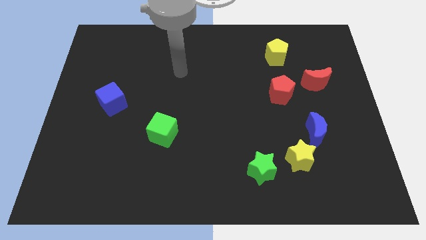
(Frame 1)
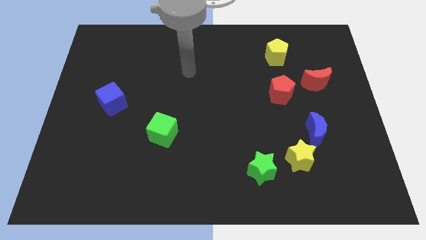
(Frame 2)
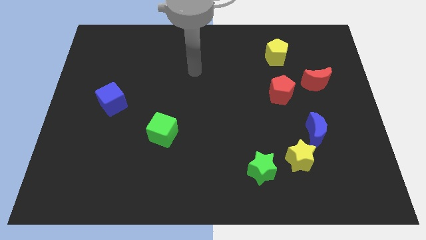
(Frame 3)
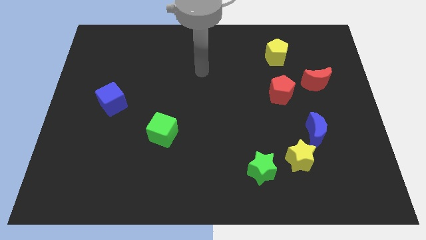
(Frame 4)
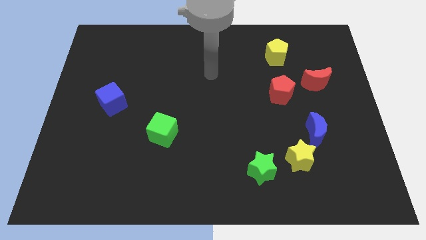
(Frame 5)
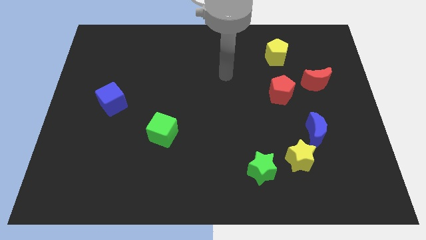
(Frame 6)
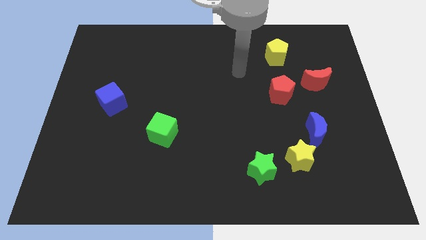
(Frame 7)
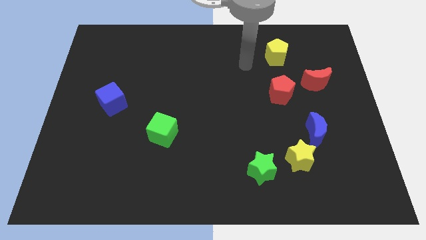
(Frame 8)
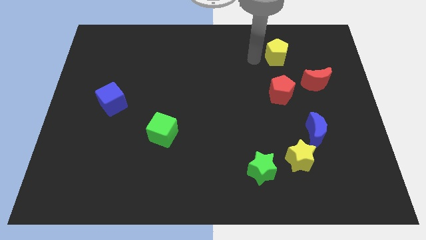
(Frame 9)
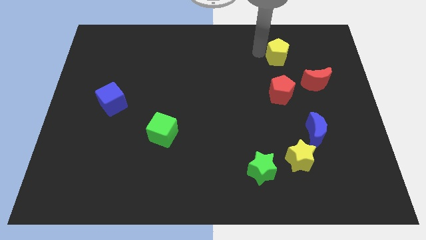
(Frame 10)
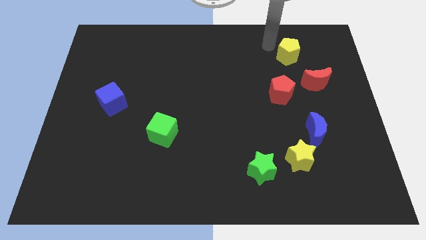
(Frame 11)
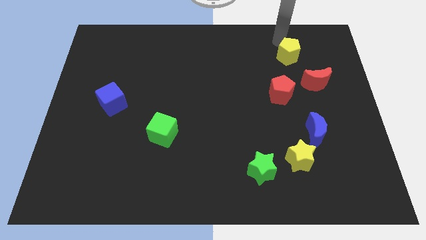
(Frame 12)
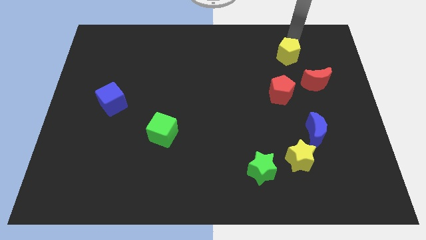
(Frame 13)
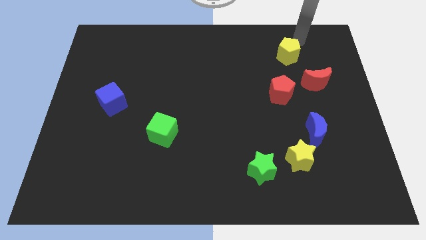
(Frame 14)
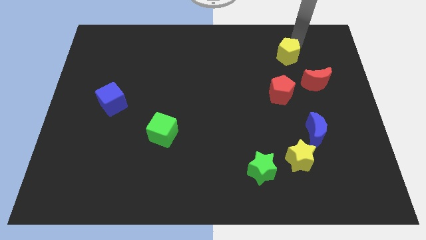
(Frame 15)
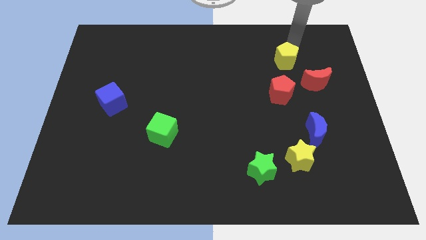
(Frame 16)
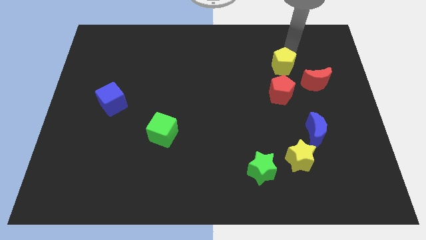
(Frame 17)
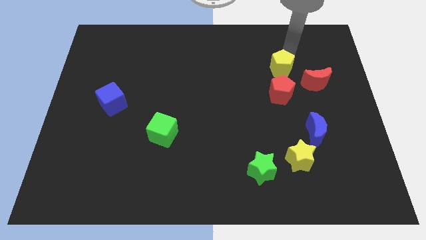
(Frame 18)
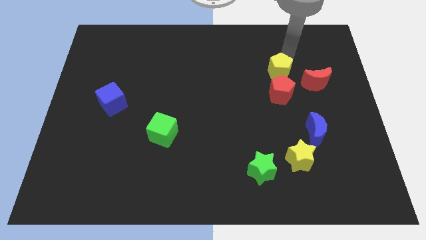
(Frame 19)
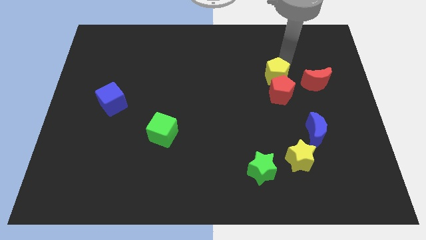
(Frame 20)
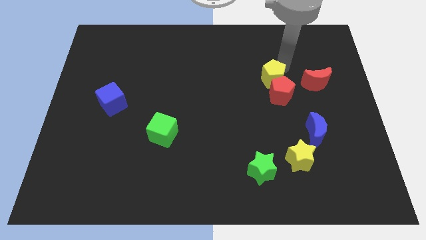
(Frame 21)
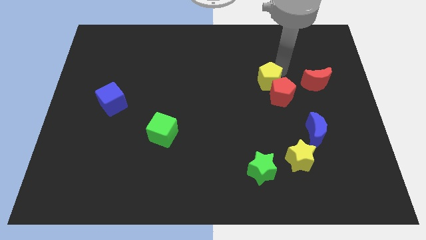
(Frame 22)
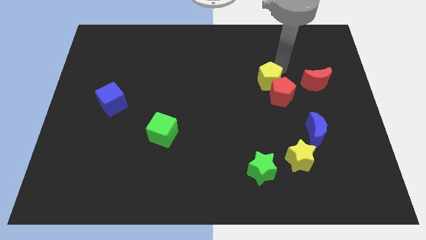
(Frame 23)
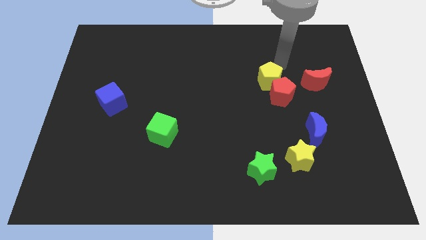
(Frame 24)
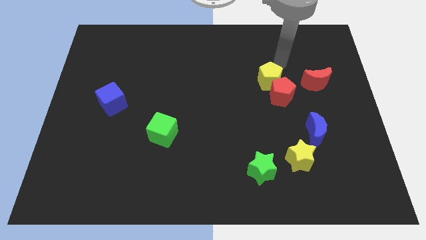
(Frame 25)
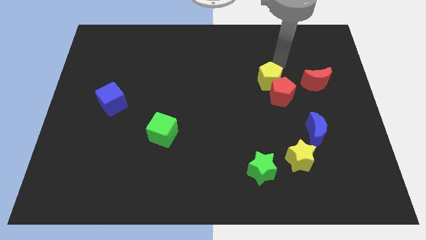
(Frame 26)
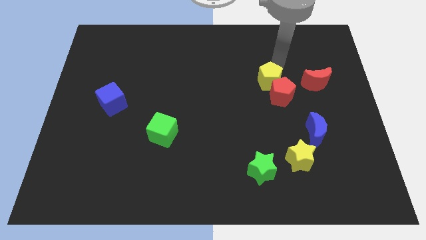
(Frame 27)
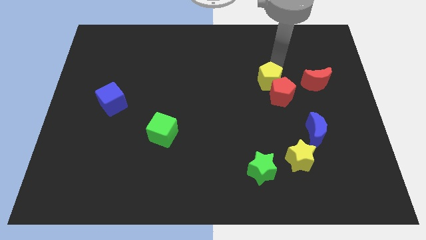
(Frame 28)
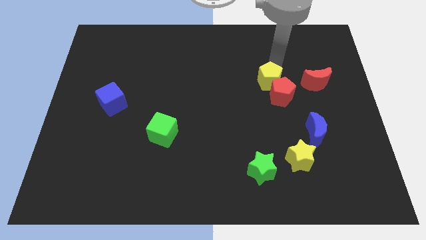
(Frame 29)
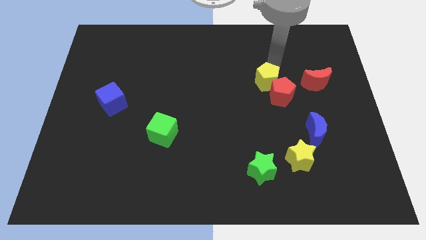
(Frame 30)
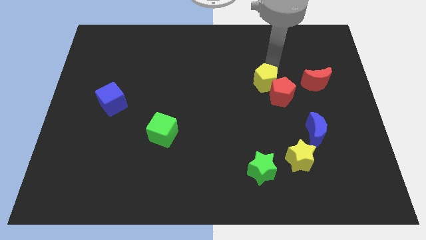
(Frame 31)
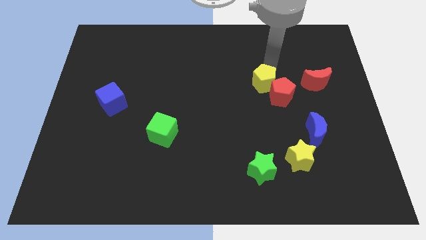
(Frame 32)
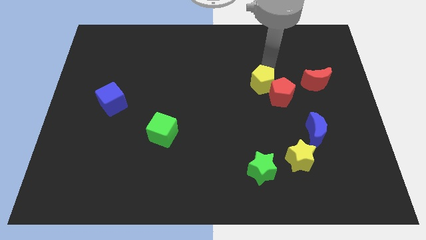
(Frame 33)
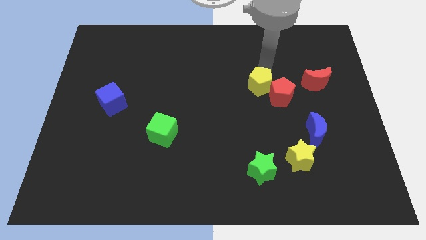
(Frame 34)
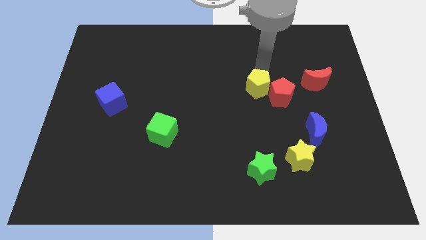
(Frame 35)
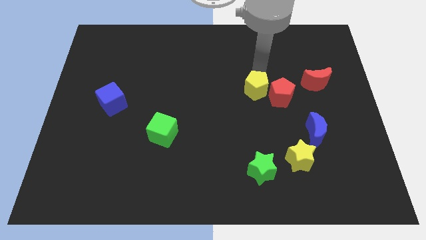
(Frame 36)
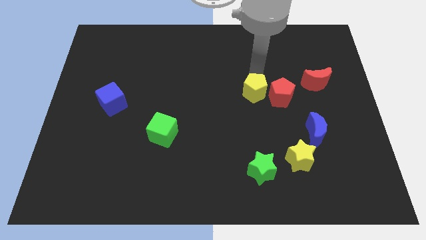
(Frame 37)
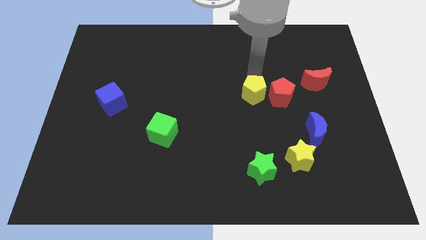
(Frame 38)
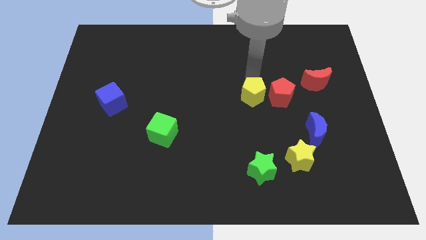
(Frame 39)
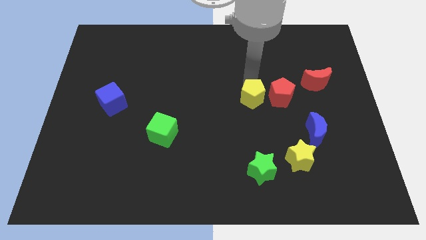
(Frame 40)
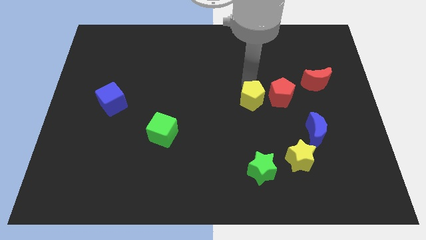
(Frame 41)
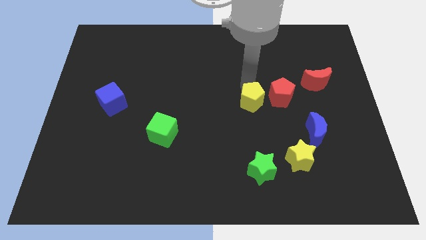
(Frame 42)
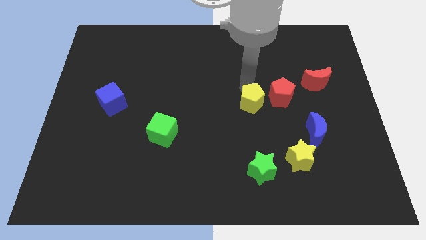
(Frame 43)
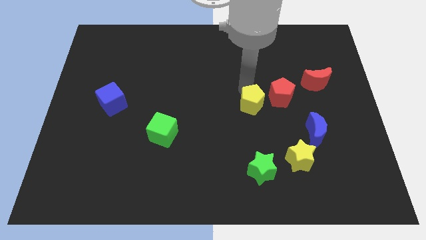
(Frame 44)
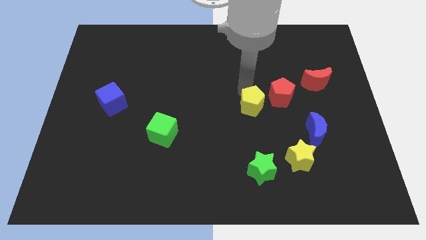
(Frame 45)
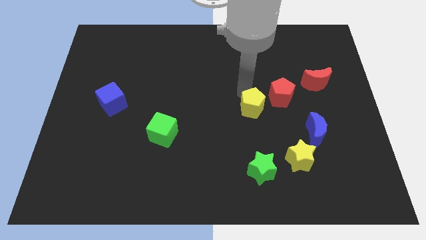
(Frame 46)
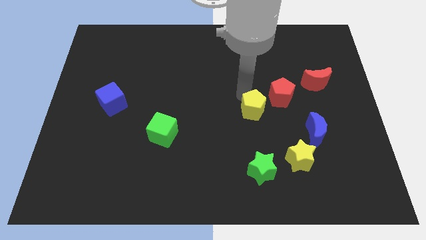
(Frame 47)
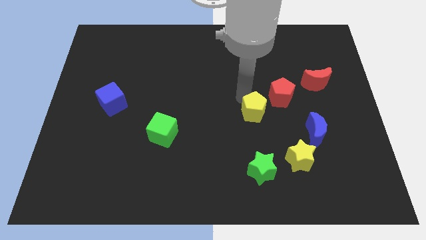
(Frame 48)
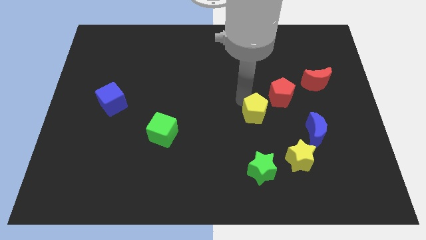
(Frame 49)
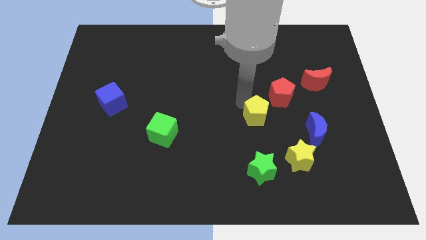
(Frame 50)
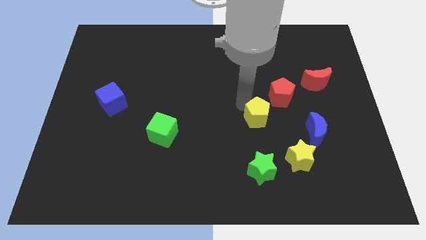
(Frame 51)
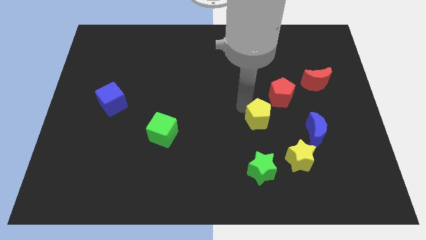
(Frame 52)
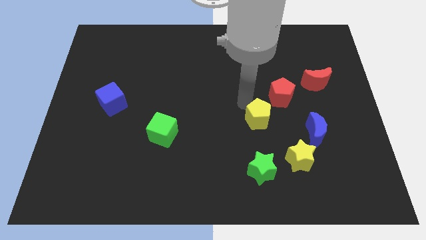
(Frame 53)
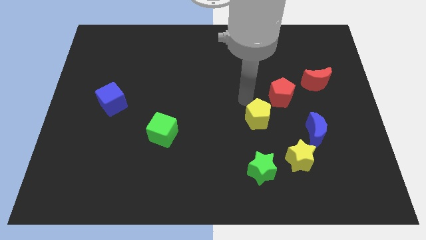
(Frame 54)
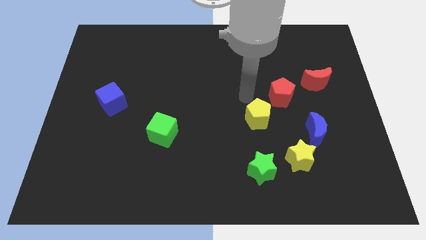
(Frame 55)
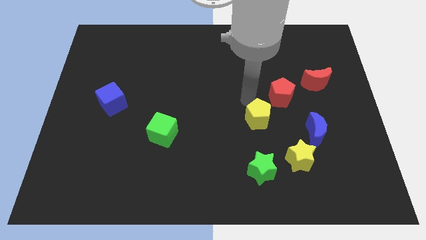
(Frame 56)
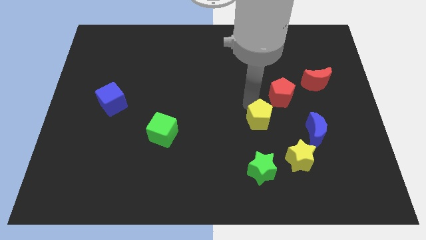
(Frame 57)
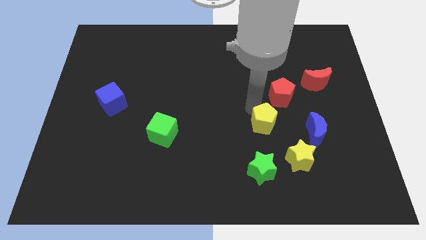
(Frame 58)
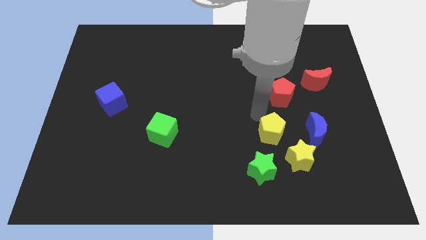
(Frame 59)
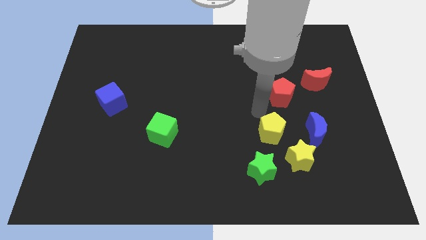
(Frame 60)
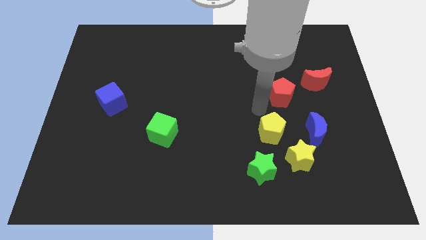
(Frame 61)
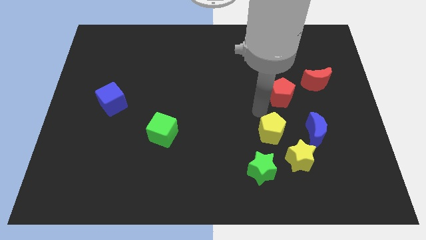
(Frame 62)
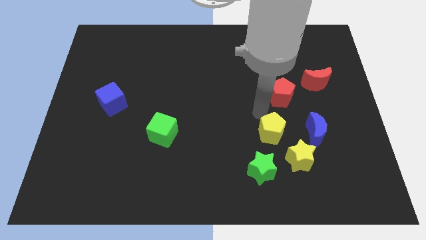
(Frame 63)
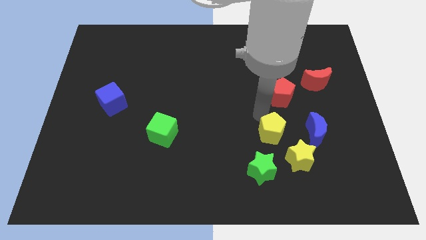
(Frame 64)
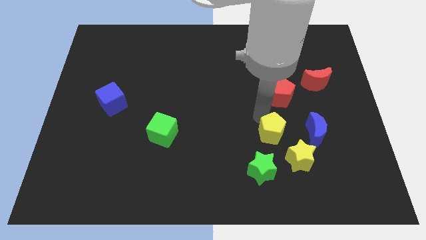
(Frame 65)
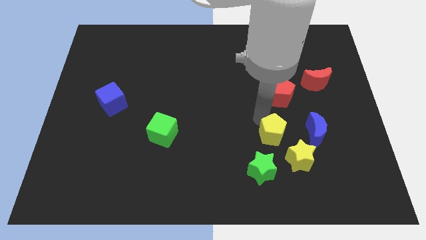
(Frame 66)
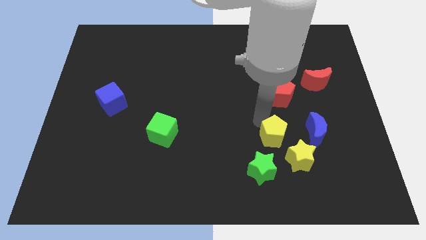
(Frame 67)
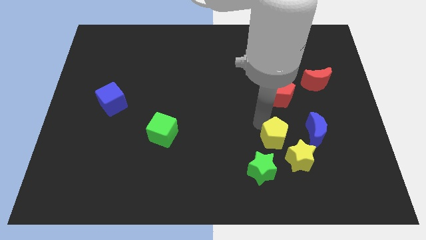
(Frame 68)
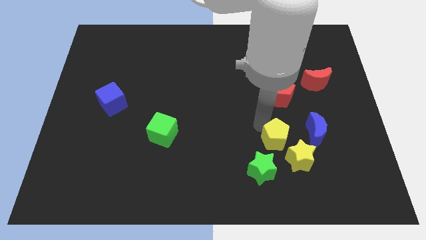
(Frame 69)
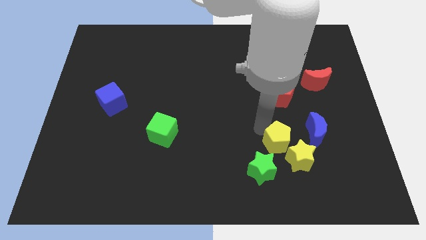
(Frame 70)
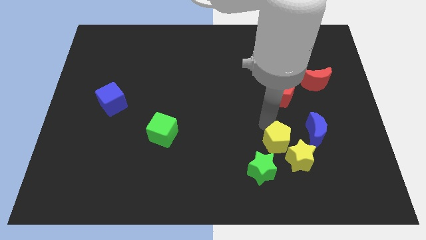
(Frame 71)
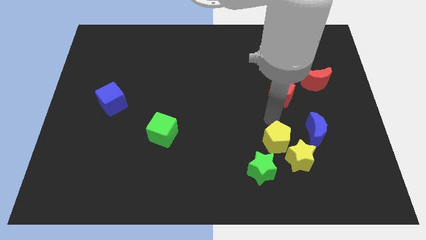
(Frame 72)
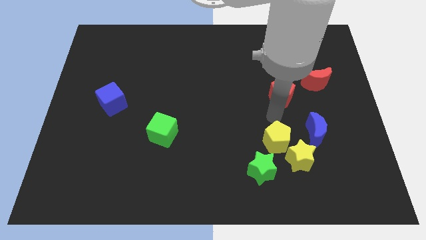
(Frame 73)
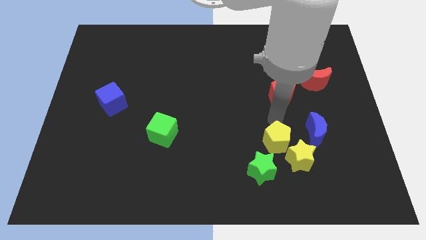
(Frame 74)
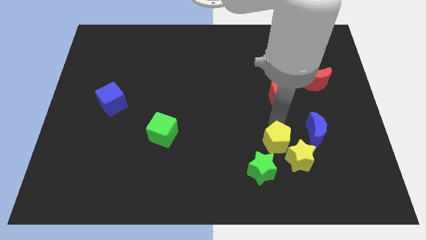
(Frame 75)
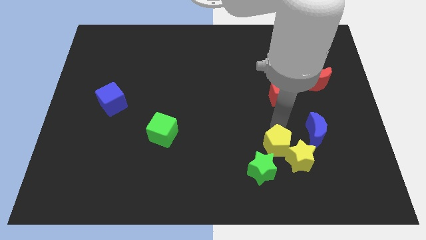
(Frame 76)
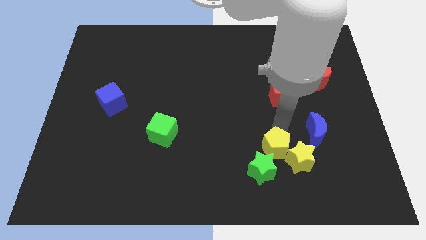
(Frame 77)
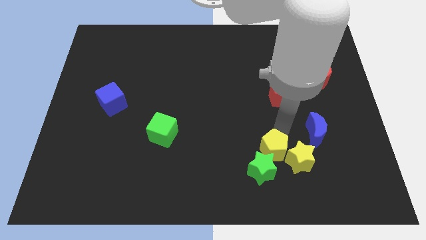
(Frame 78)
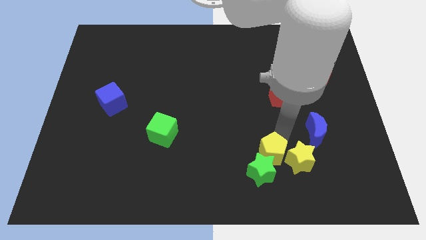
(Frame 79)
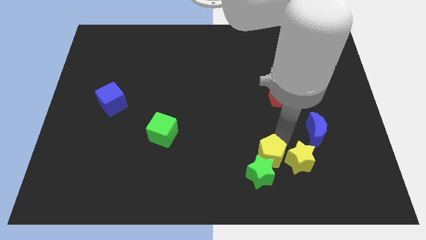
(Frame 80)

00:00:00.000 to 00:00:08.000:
slide the yellow pentagon diagonally down and to the left of the yellow star
